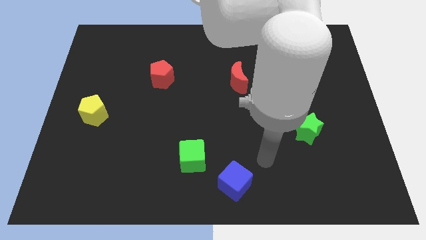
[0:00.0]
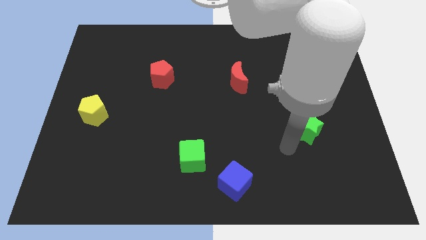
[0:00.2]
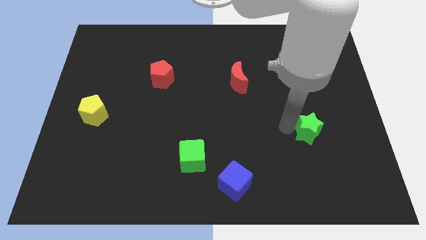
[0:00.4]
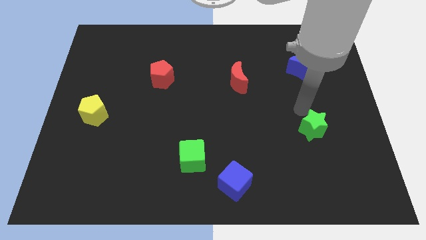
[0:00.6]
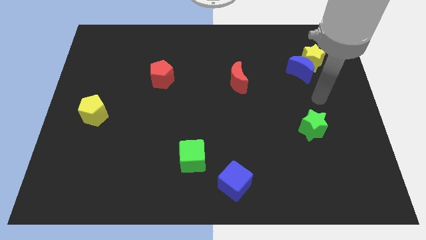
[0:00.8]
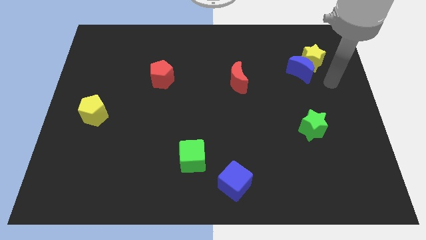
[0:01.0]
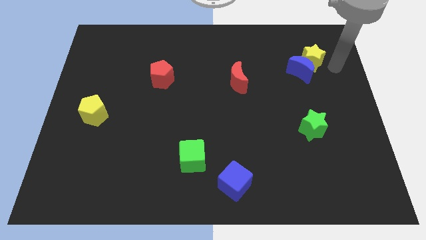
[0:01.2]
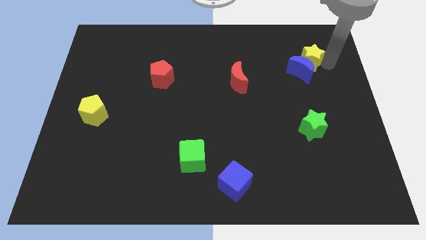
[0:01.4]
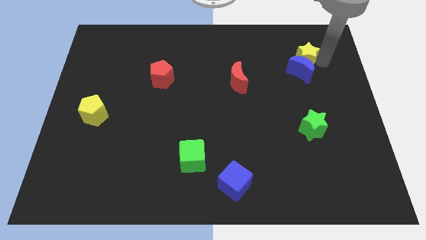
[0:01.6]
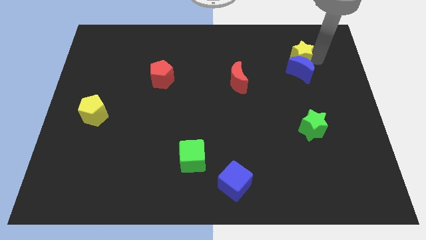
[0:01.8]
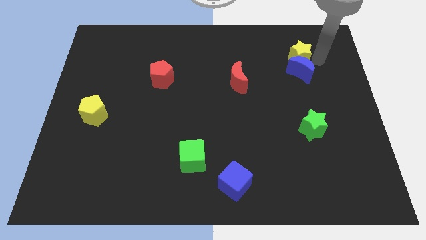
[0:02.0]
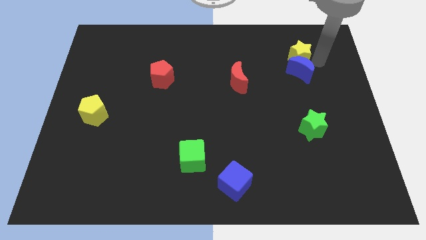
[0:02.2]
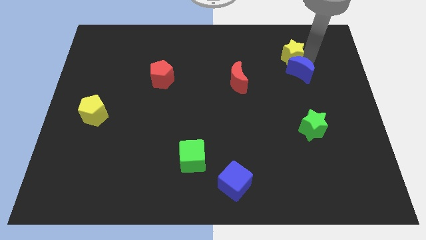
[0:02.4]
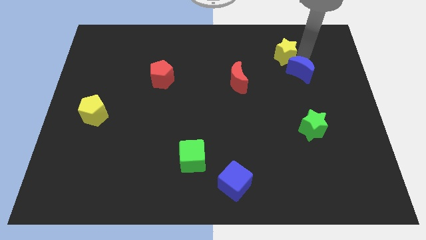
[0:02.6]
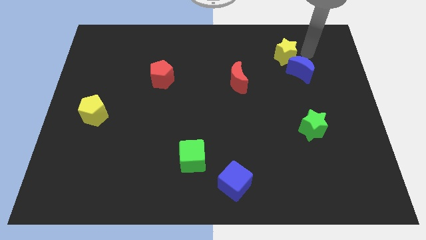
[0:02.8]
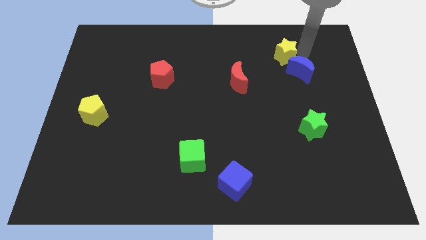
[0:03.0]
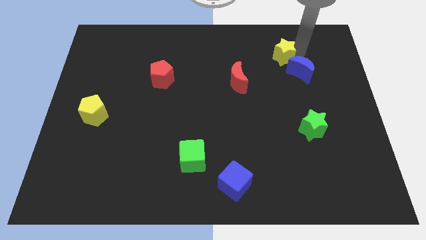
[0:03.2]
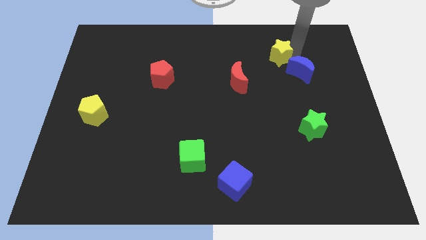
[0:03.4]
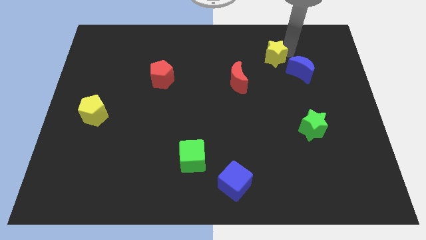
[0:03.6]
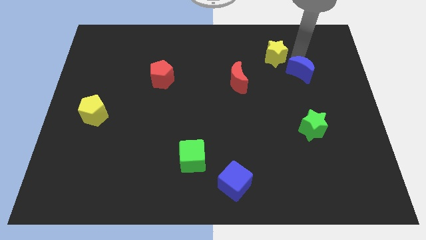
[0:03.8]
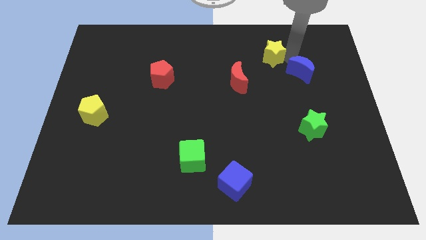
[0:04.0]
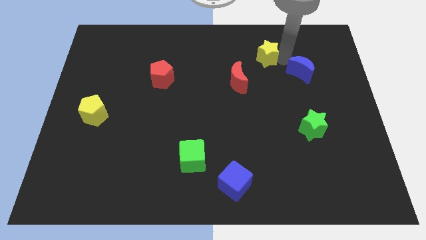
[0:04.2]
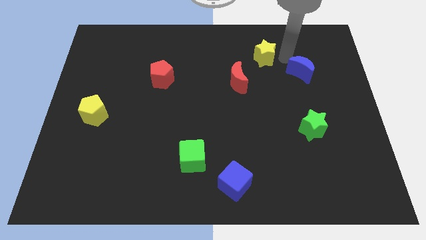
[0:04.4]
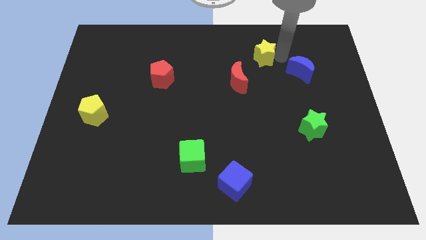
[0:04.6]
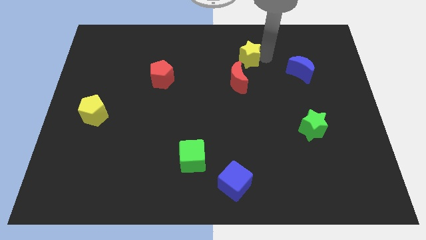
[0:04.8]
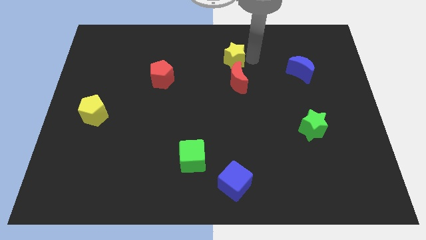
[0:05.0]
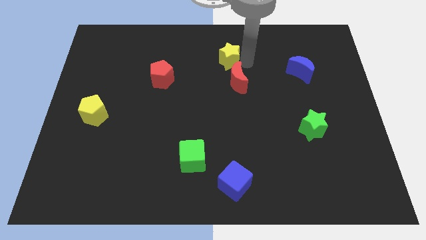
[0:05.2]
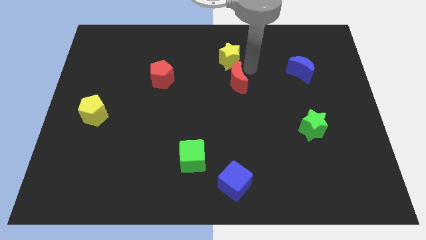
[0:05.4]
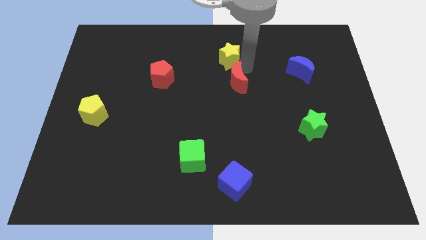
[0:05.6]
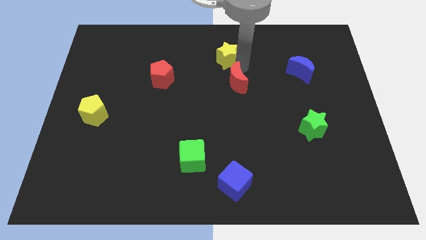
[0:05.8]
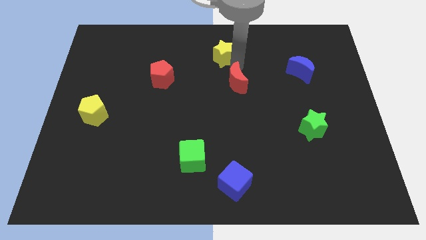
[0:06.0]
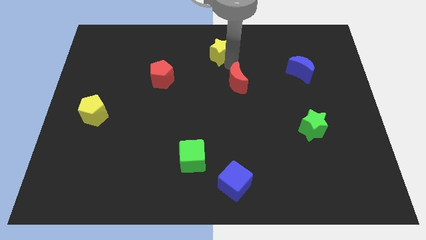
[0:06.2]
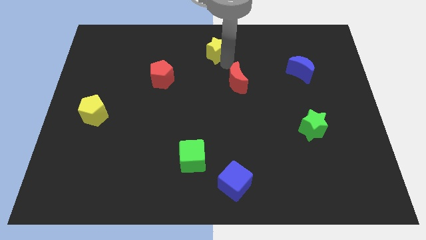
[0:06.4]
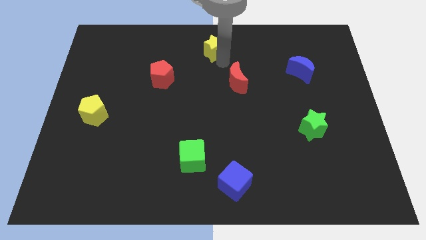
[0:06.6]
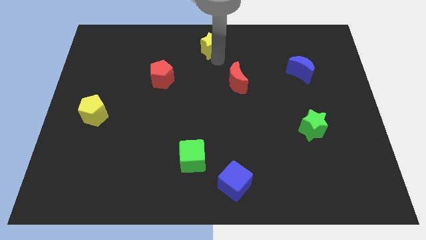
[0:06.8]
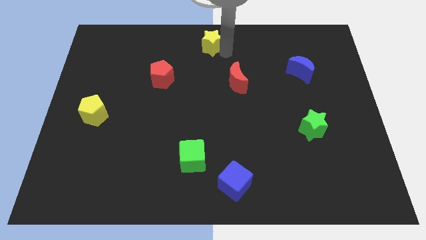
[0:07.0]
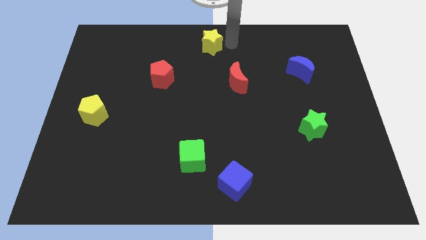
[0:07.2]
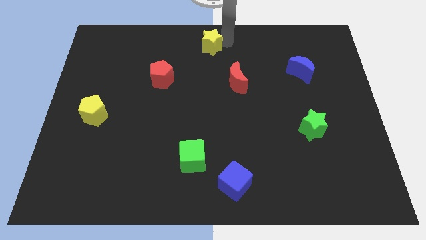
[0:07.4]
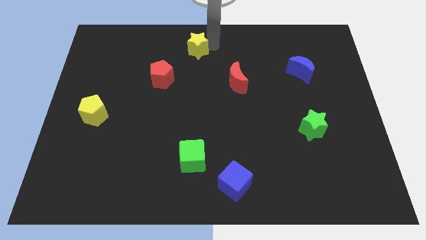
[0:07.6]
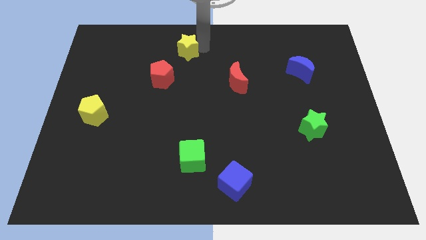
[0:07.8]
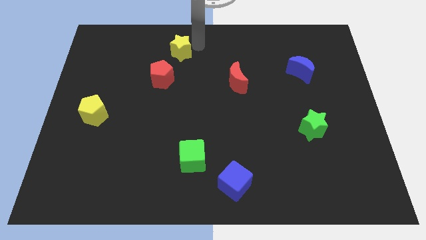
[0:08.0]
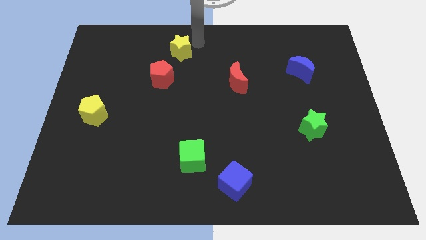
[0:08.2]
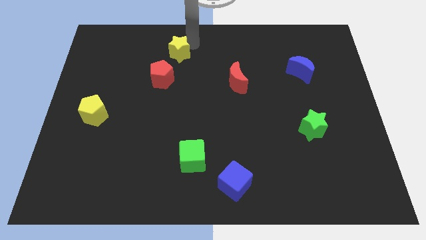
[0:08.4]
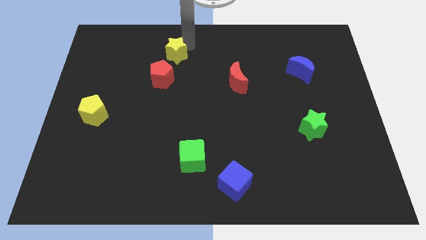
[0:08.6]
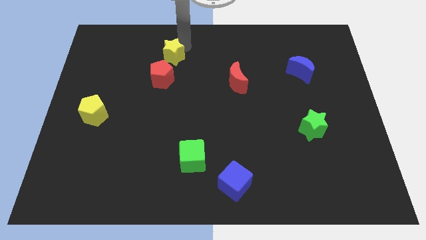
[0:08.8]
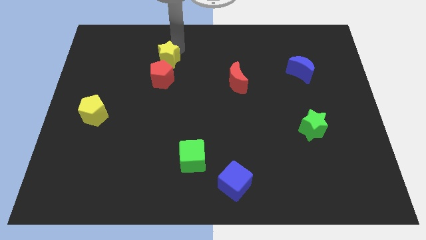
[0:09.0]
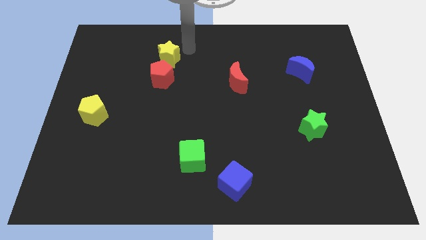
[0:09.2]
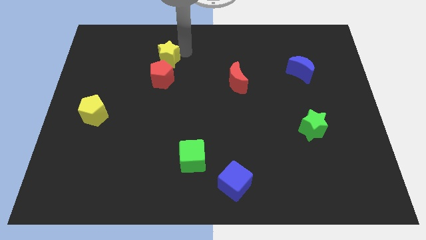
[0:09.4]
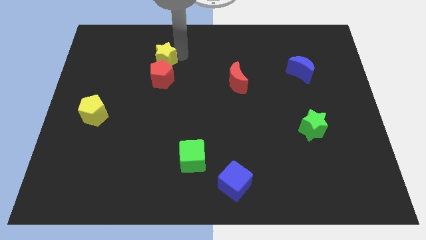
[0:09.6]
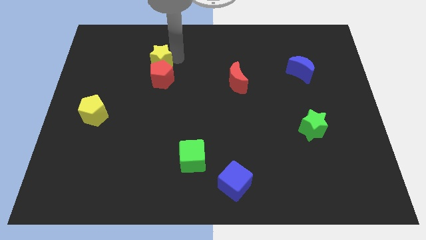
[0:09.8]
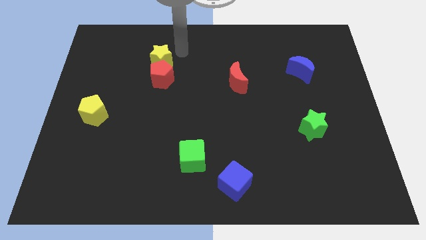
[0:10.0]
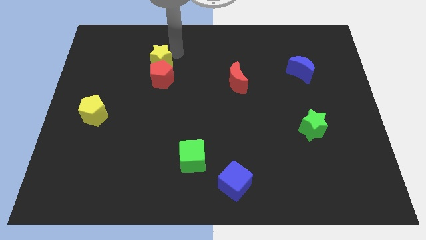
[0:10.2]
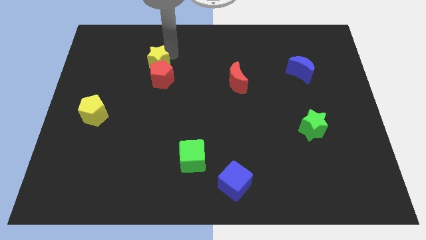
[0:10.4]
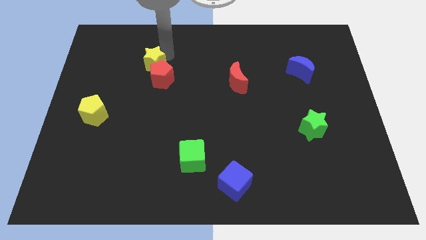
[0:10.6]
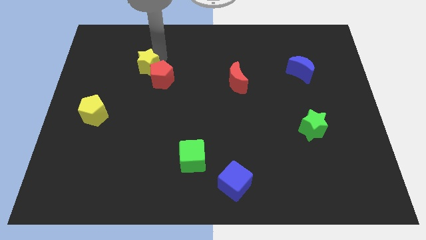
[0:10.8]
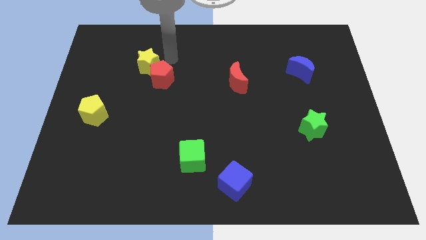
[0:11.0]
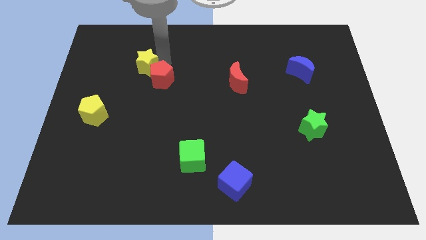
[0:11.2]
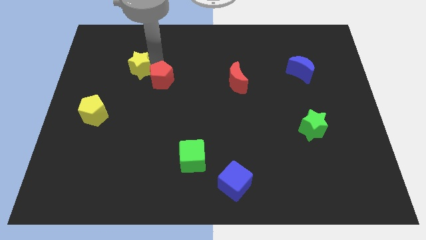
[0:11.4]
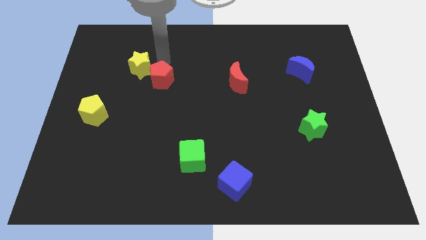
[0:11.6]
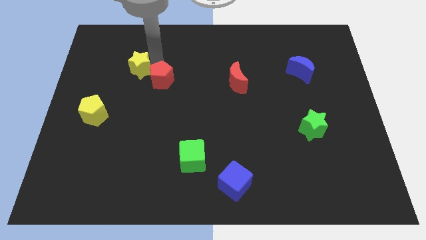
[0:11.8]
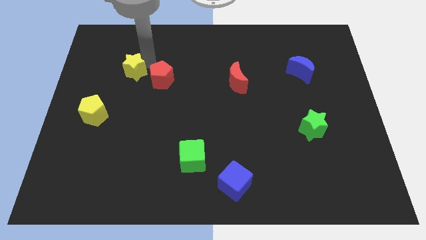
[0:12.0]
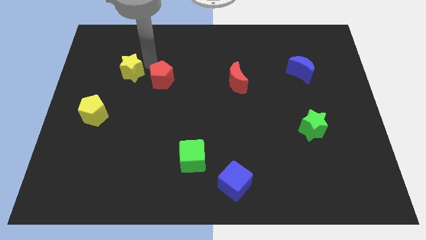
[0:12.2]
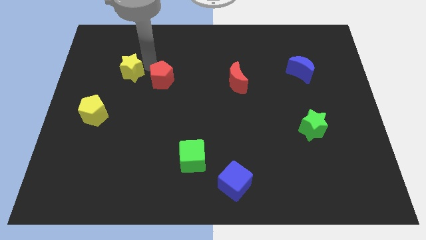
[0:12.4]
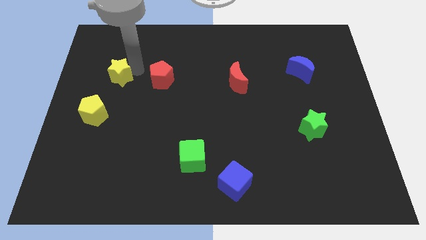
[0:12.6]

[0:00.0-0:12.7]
slide the yellow star to the top of the yellow pentagon
